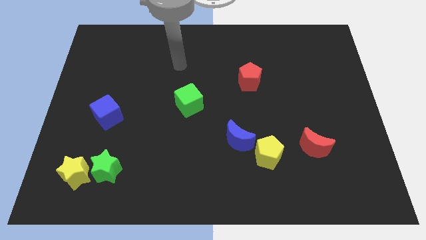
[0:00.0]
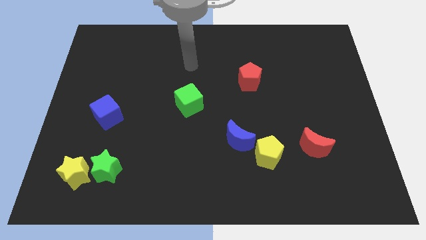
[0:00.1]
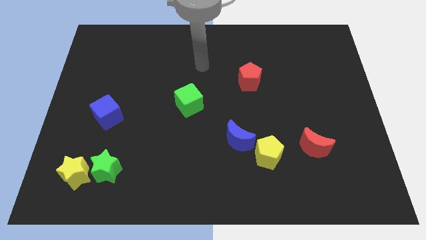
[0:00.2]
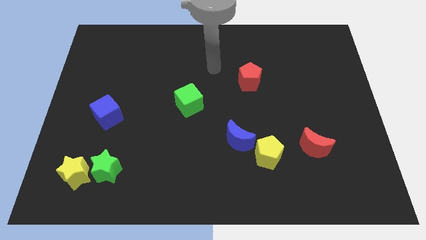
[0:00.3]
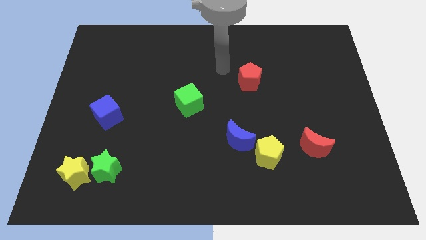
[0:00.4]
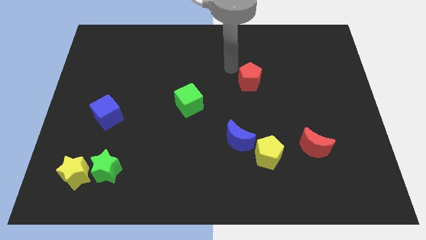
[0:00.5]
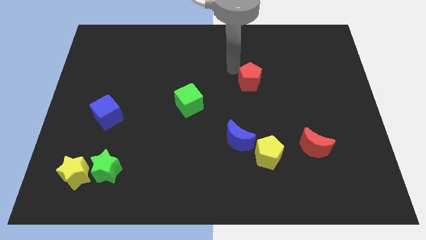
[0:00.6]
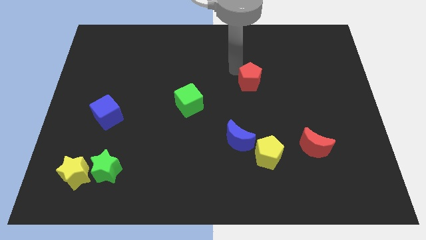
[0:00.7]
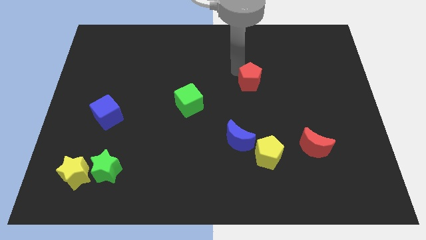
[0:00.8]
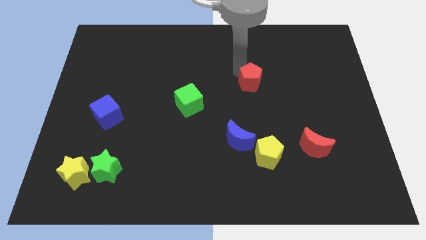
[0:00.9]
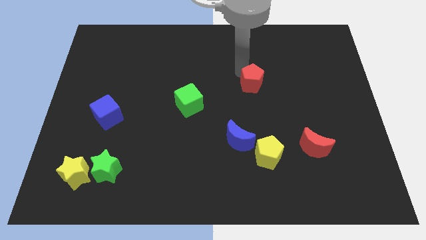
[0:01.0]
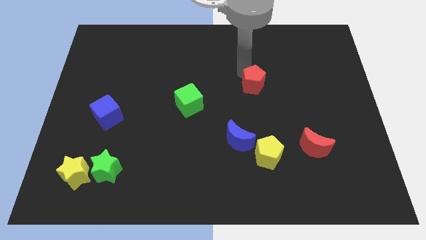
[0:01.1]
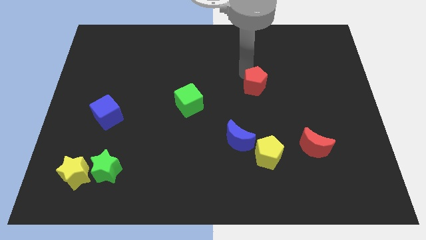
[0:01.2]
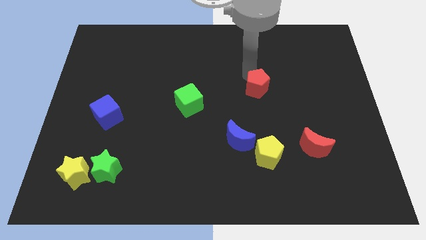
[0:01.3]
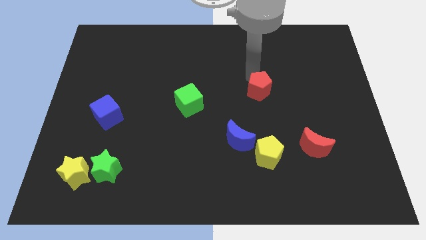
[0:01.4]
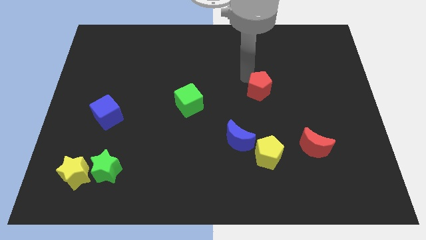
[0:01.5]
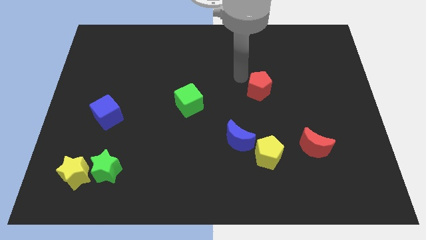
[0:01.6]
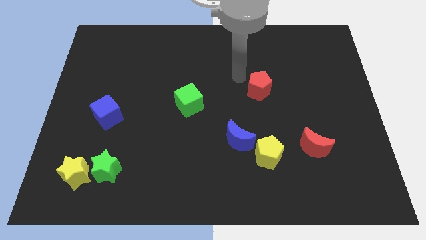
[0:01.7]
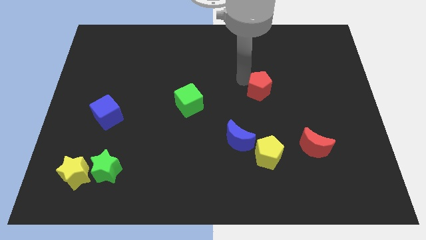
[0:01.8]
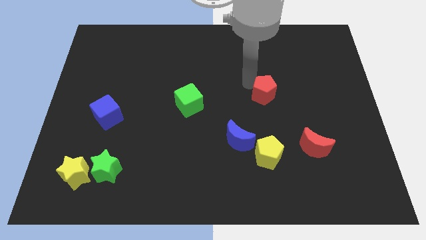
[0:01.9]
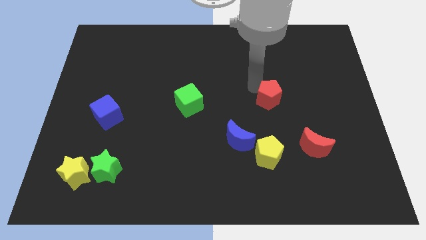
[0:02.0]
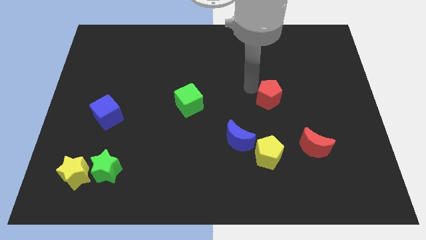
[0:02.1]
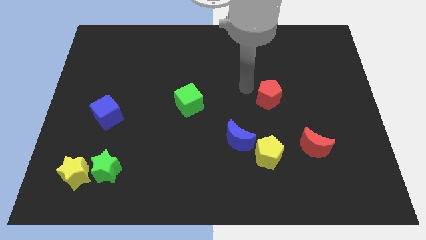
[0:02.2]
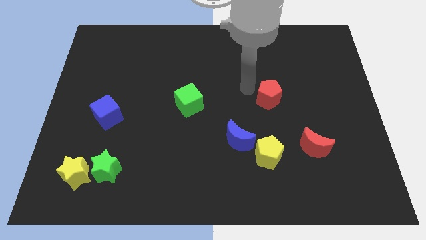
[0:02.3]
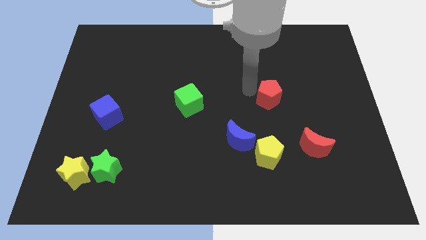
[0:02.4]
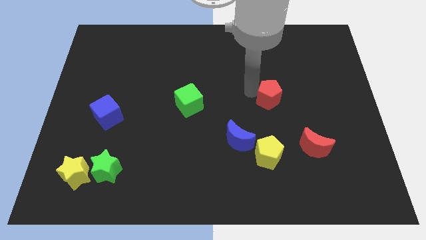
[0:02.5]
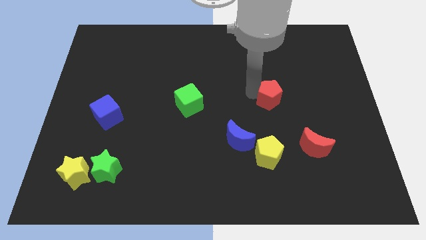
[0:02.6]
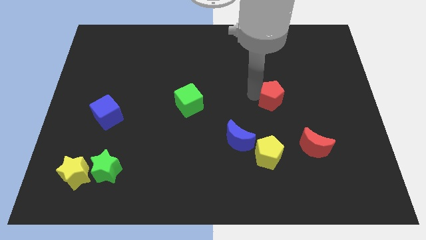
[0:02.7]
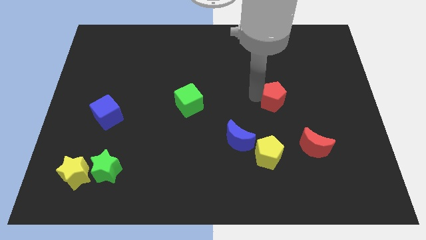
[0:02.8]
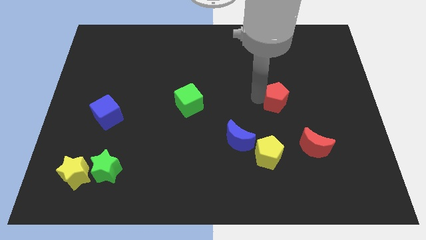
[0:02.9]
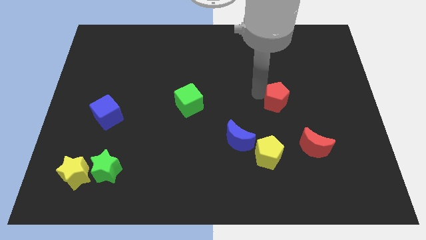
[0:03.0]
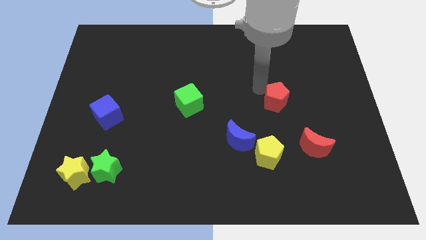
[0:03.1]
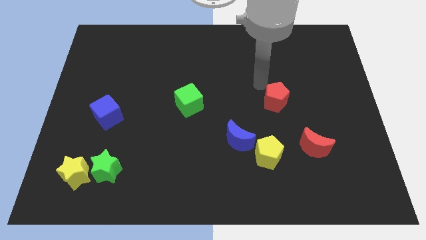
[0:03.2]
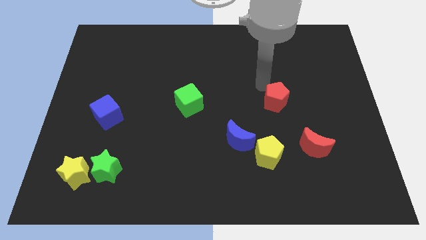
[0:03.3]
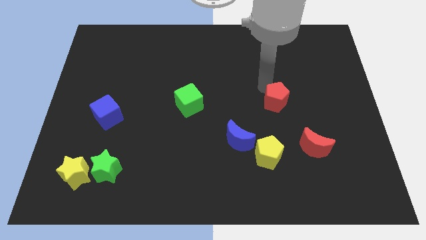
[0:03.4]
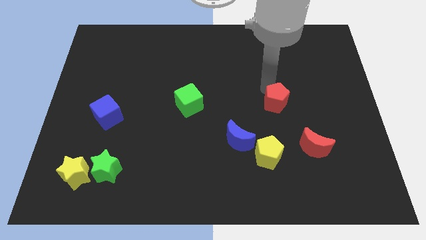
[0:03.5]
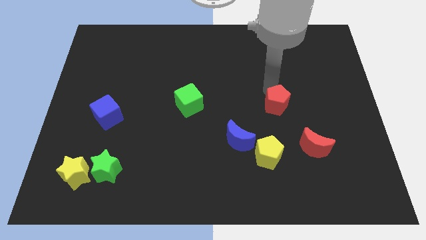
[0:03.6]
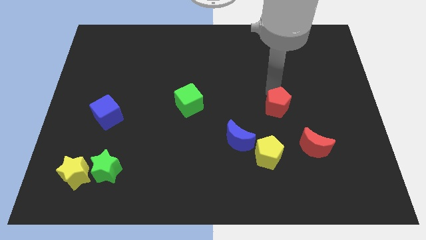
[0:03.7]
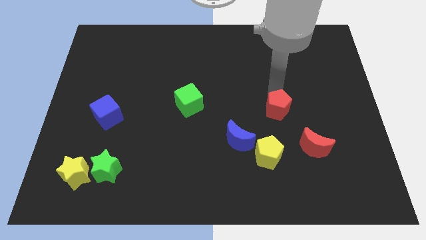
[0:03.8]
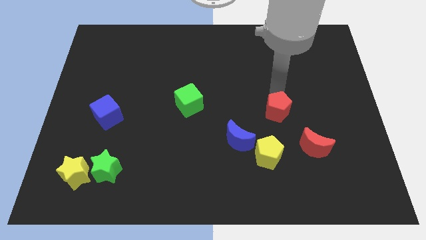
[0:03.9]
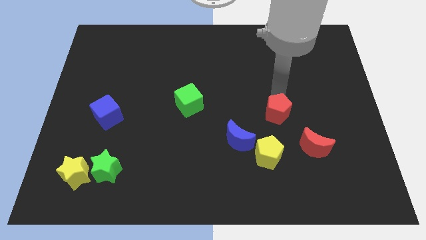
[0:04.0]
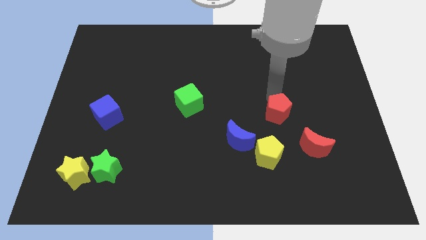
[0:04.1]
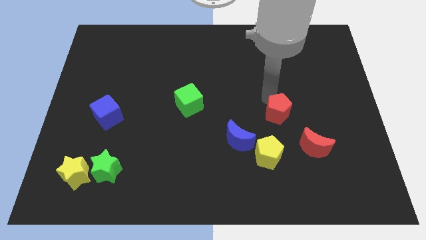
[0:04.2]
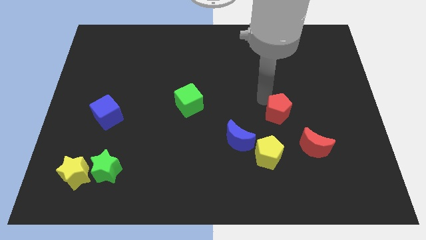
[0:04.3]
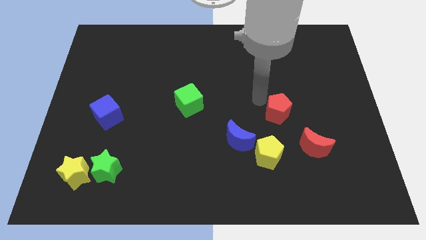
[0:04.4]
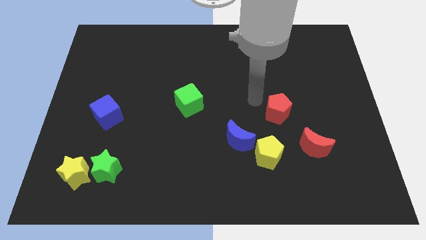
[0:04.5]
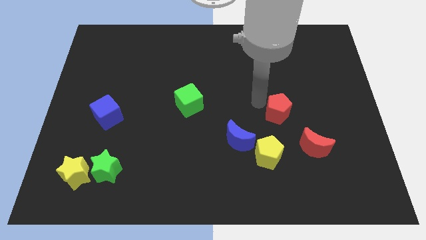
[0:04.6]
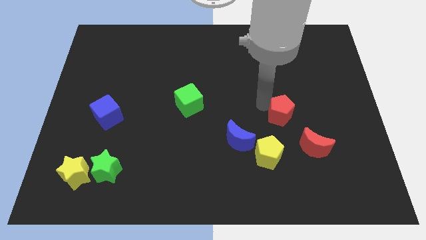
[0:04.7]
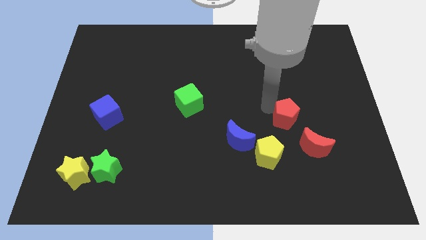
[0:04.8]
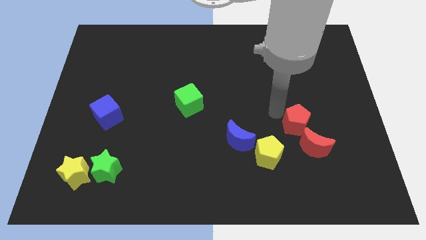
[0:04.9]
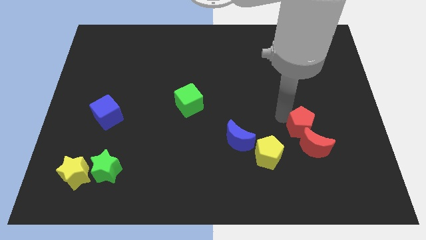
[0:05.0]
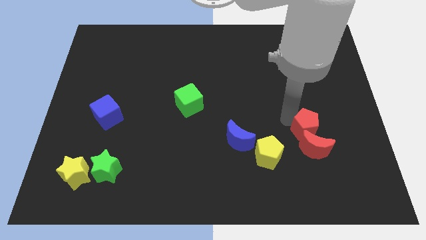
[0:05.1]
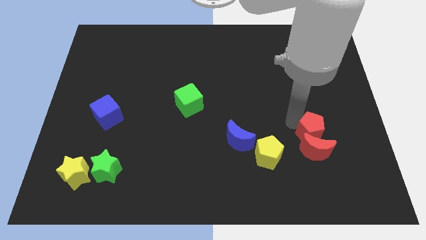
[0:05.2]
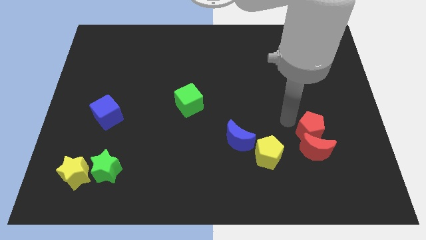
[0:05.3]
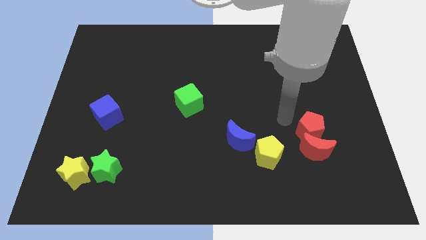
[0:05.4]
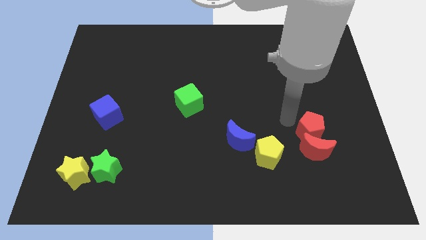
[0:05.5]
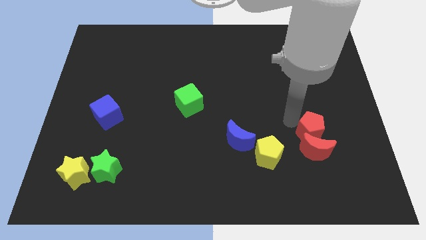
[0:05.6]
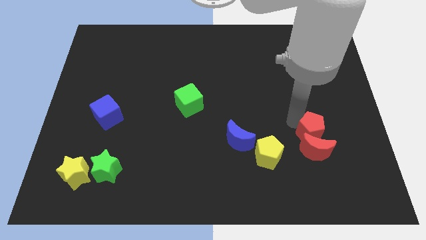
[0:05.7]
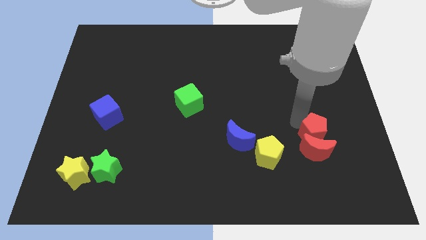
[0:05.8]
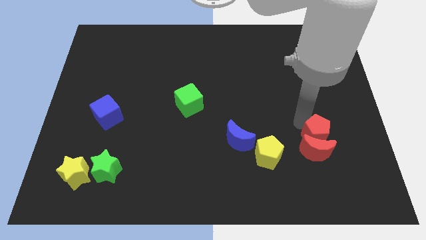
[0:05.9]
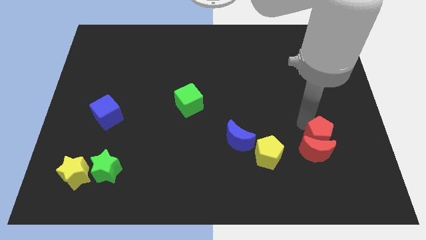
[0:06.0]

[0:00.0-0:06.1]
slide the red pentagon right of the yellow pentagon

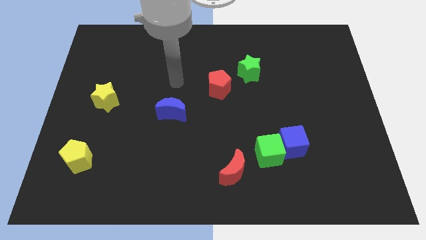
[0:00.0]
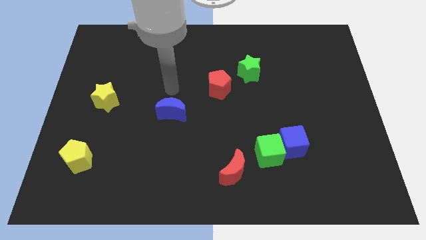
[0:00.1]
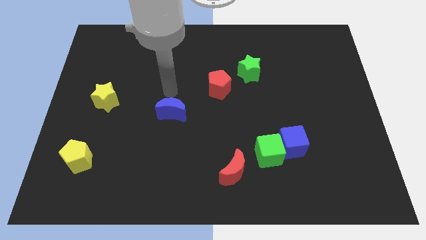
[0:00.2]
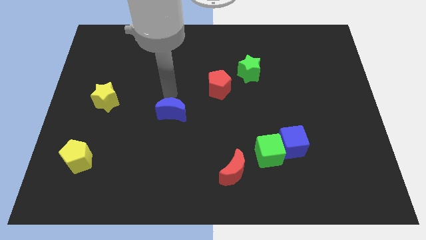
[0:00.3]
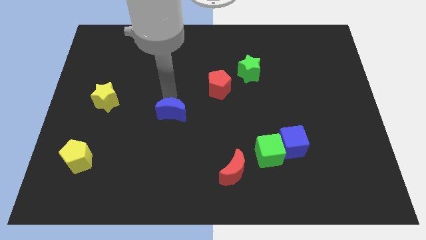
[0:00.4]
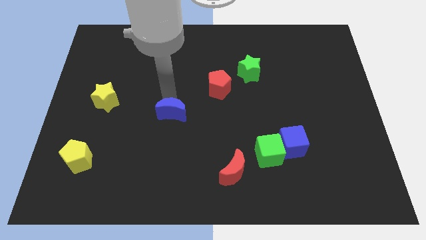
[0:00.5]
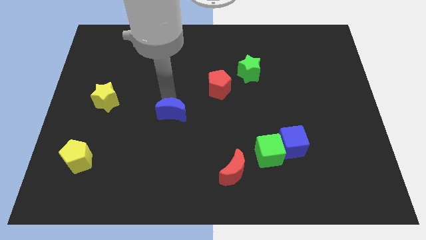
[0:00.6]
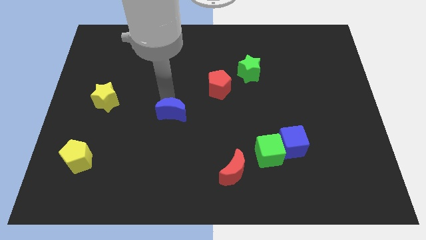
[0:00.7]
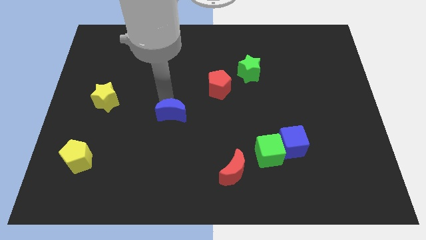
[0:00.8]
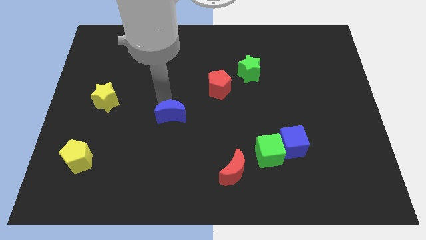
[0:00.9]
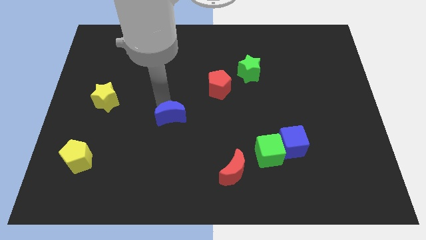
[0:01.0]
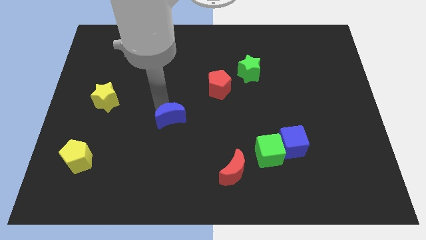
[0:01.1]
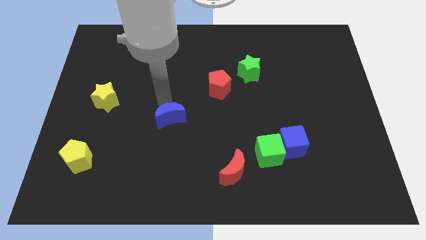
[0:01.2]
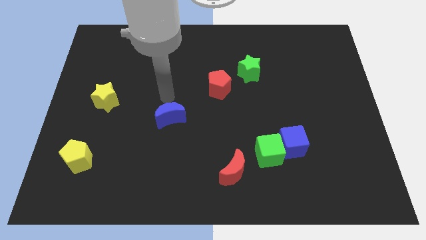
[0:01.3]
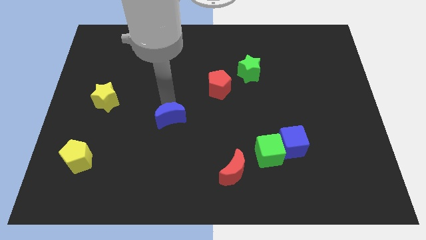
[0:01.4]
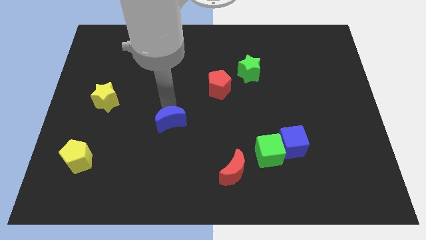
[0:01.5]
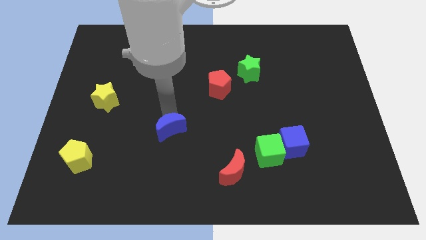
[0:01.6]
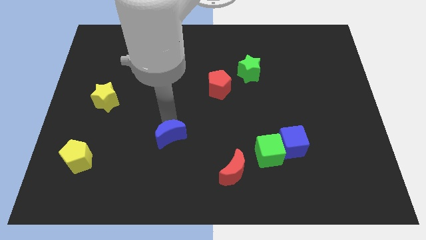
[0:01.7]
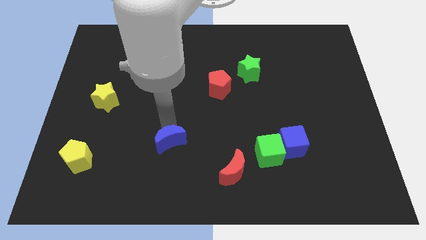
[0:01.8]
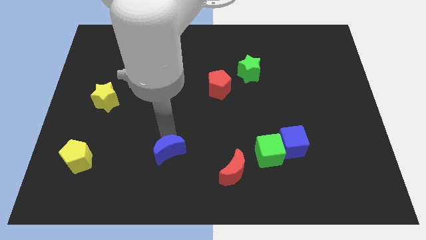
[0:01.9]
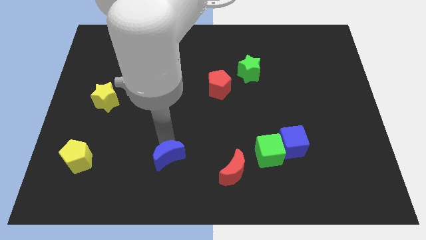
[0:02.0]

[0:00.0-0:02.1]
slide the blue moon just left of the red moon
